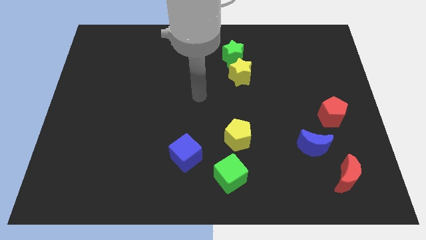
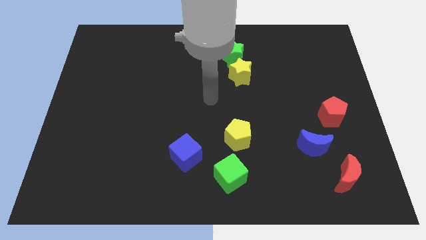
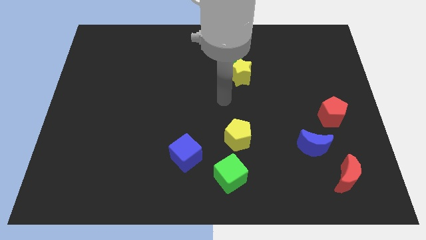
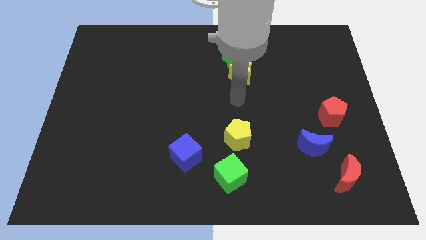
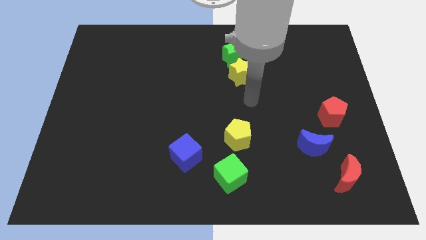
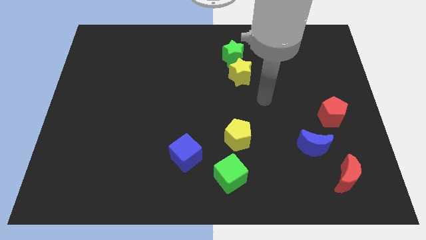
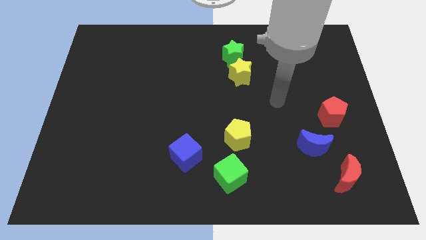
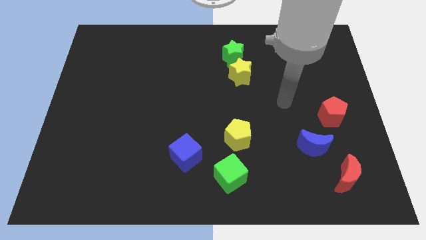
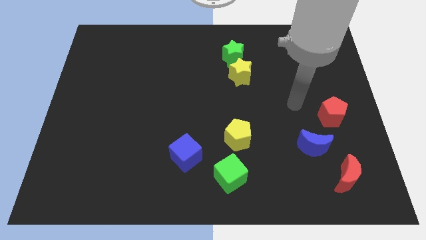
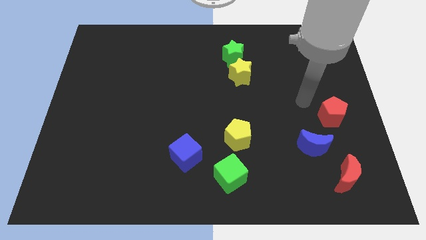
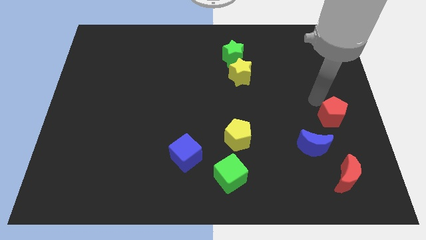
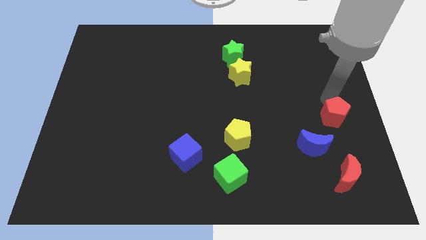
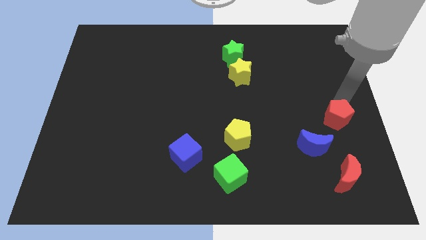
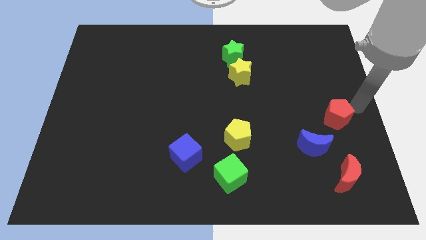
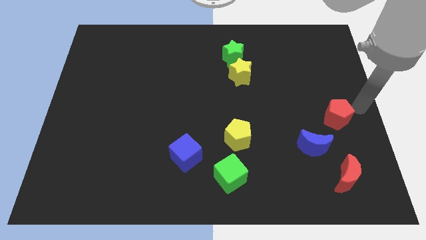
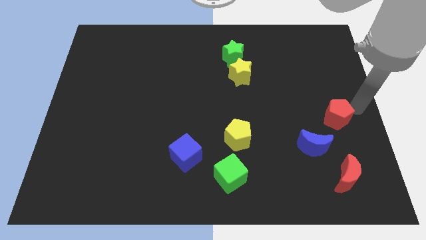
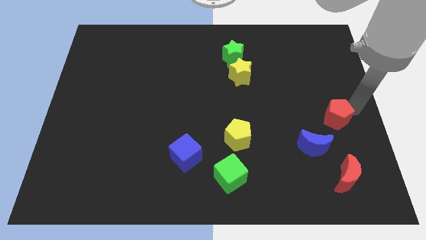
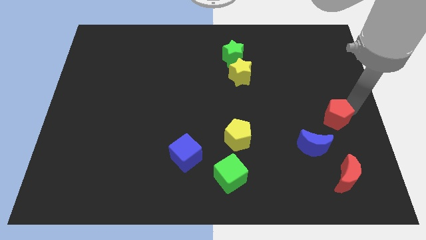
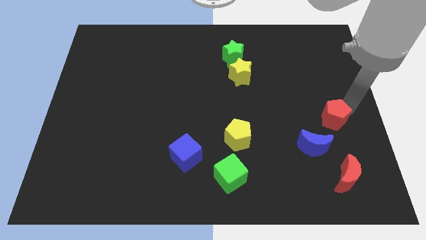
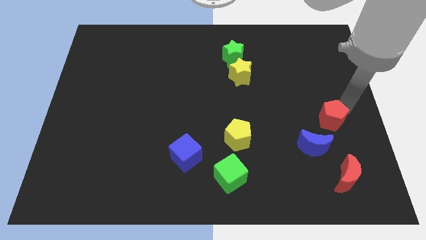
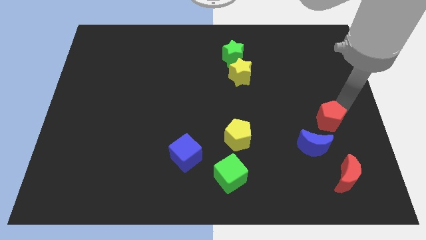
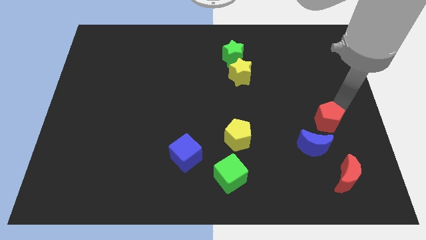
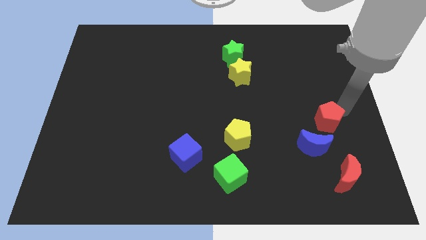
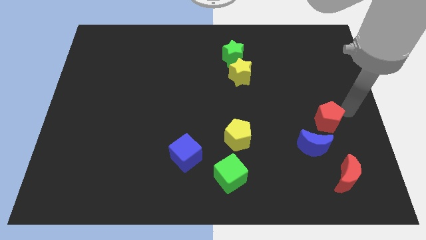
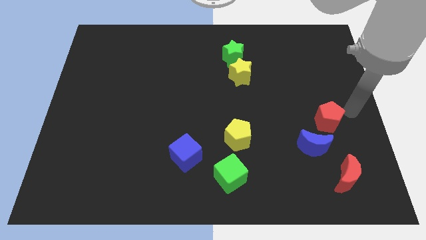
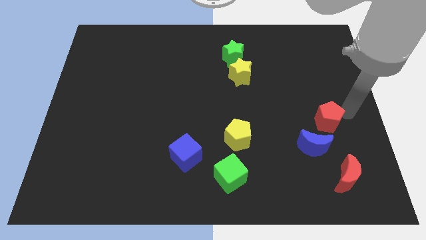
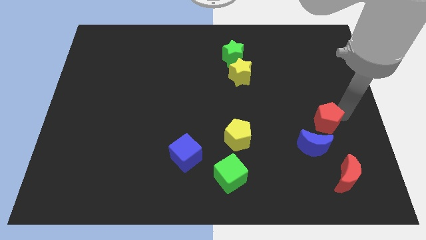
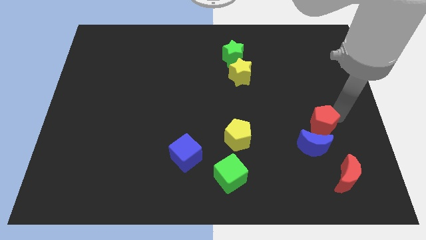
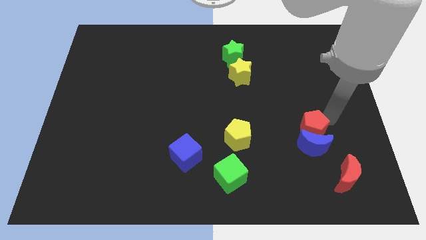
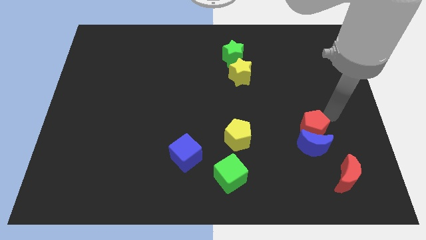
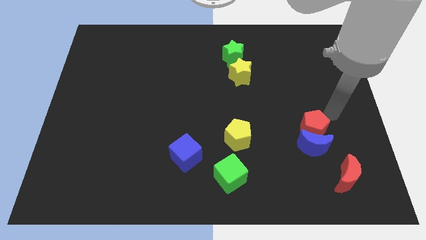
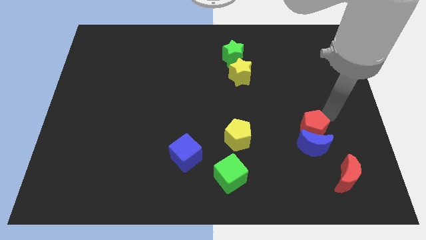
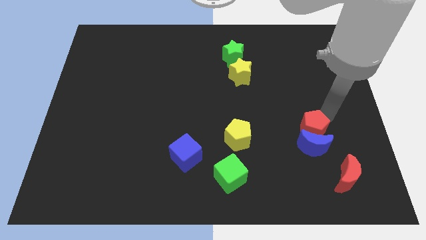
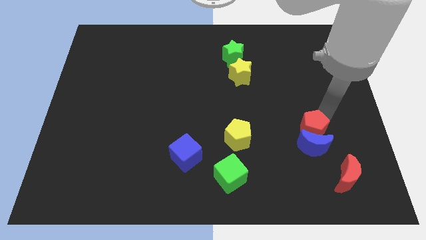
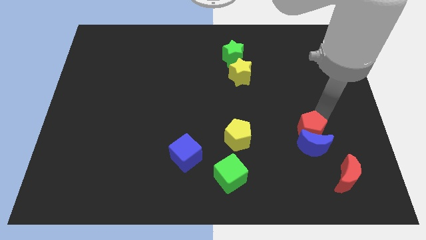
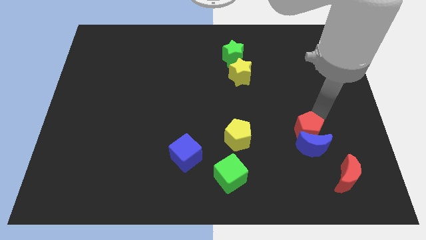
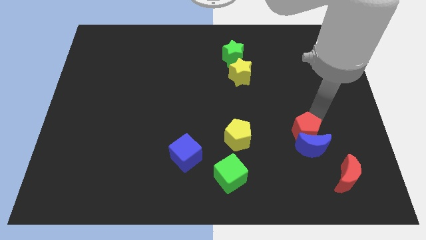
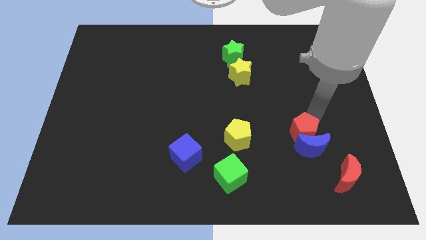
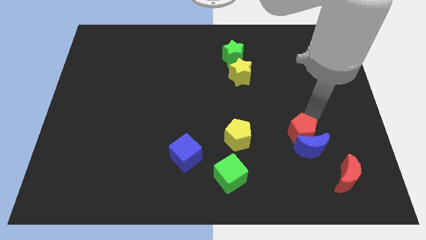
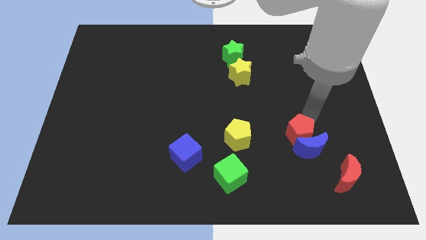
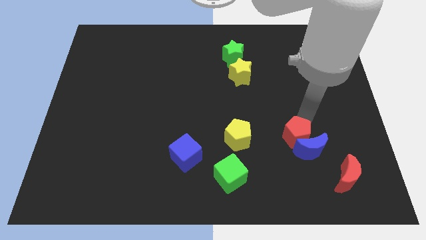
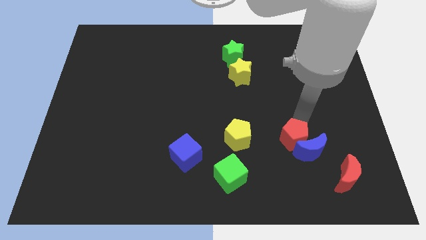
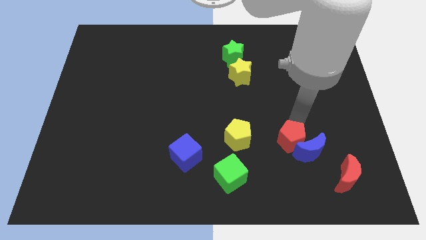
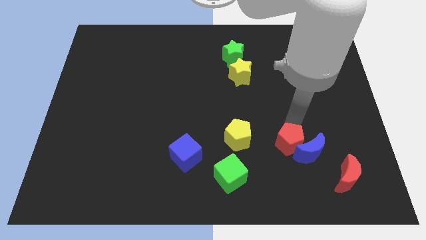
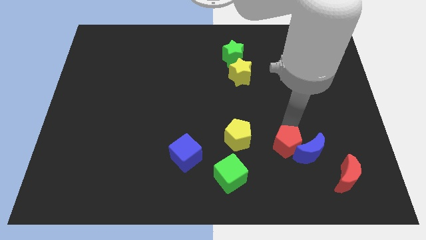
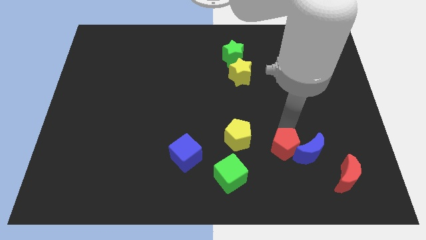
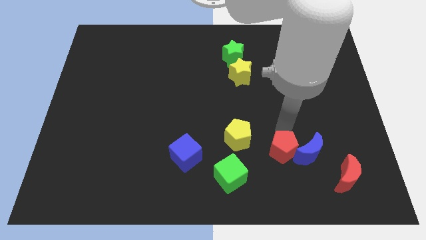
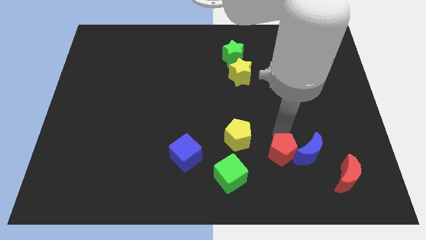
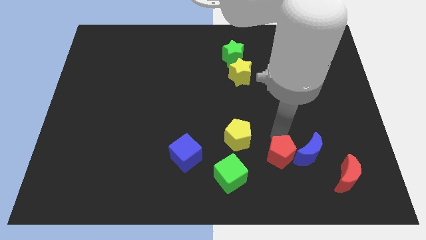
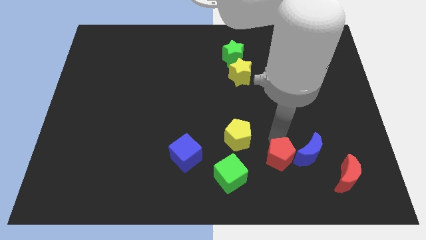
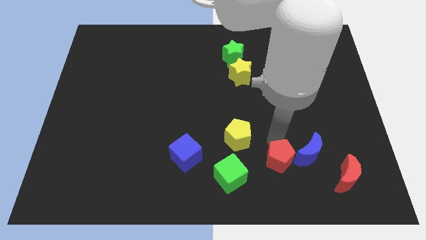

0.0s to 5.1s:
push the red pentagon to the left of the red moon

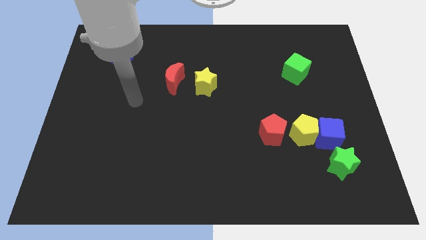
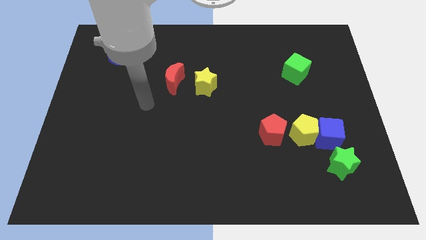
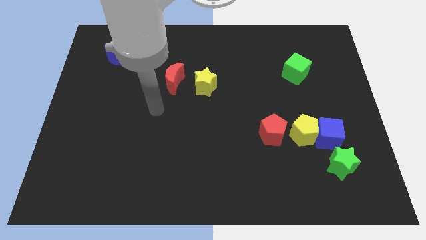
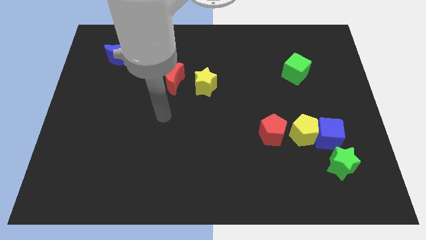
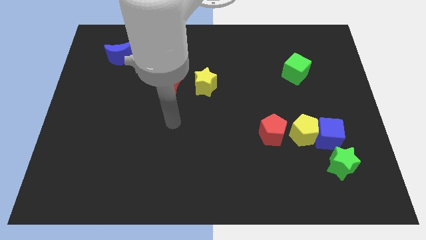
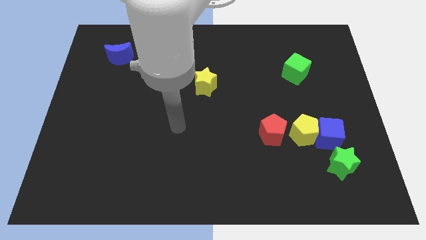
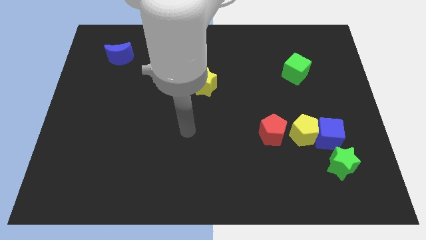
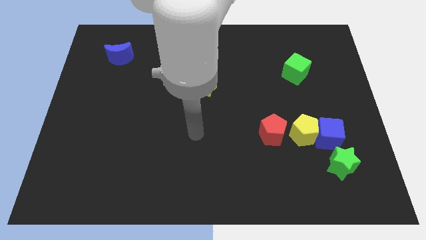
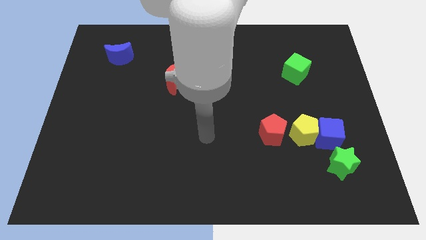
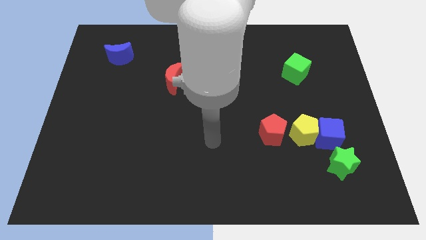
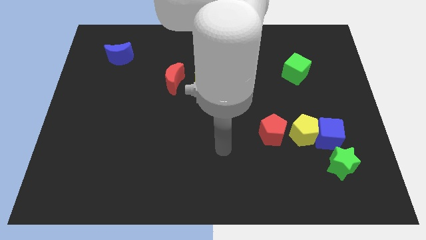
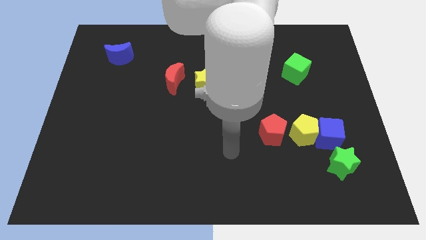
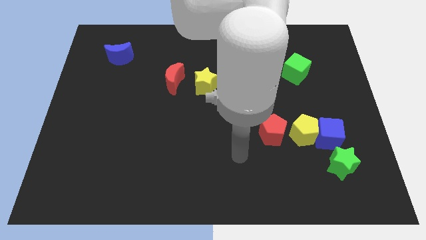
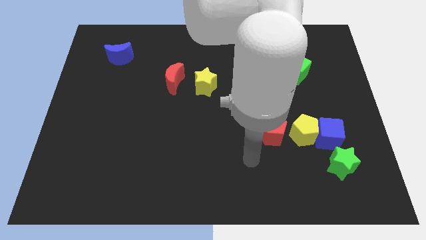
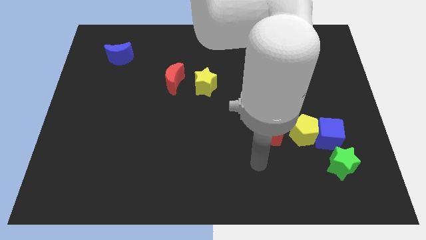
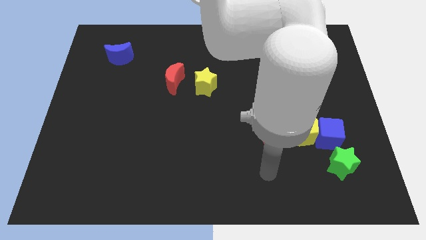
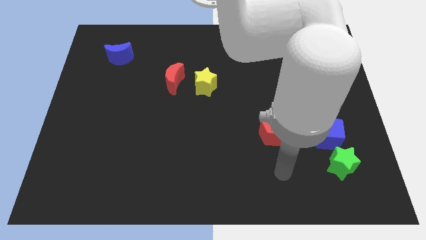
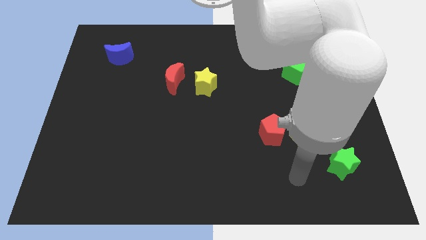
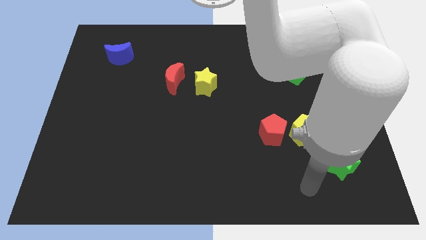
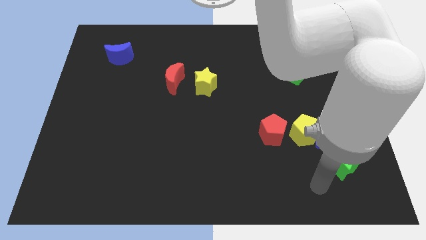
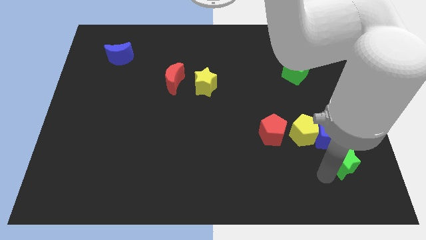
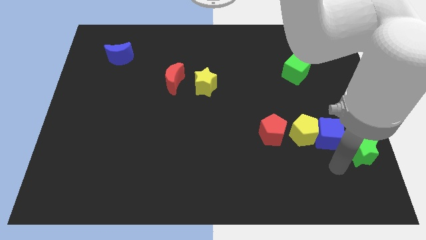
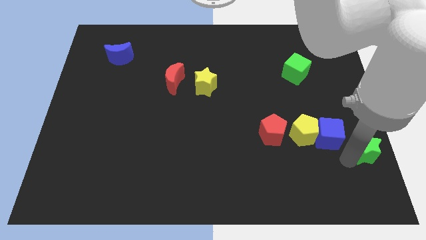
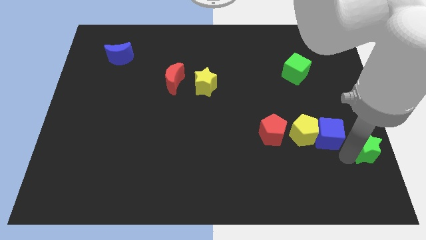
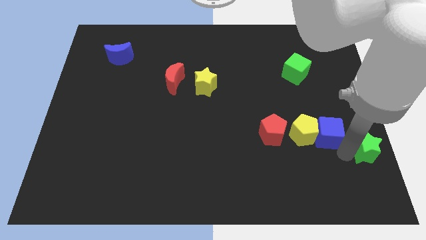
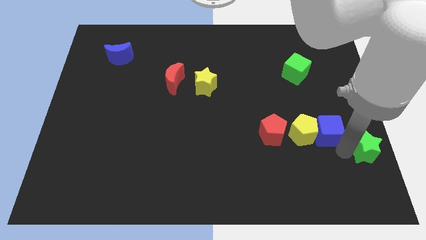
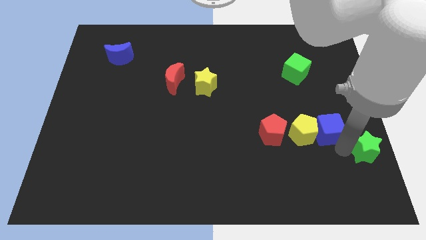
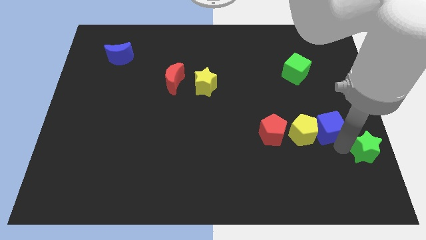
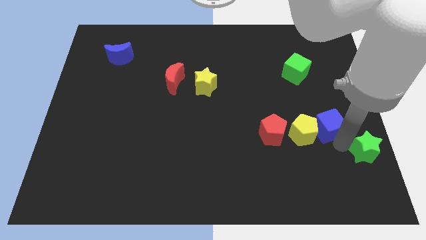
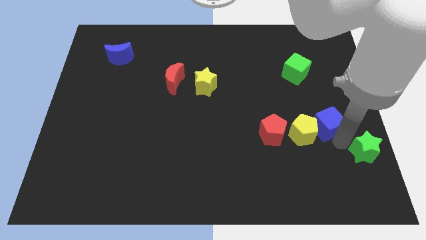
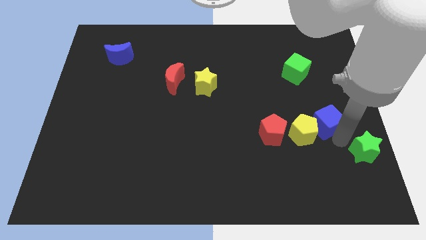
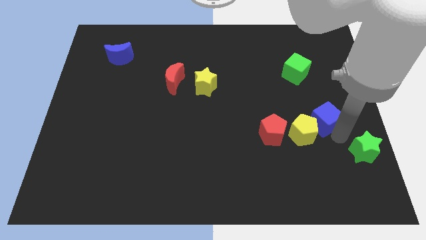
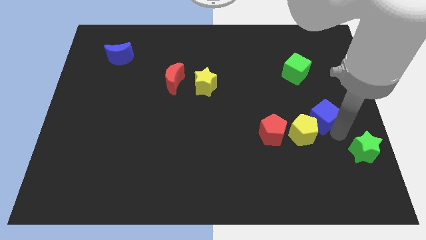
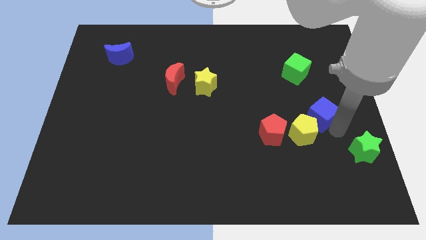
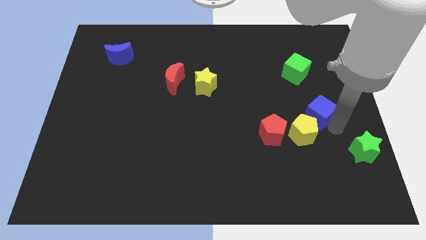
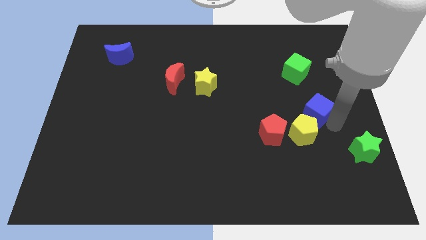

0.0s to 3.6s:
slide the blue cube to the top right of the red pentagon
